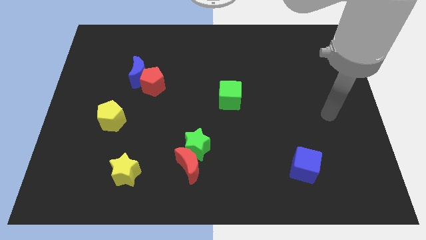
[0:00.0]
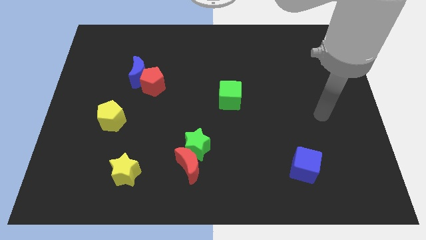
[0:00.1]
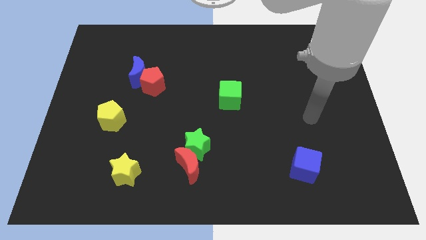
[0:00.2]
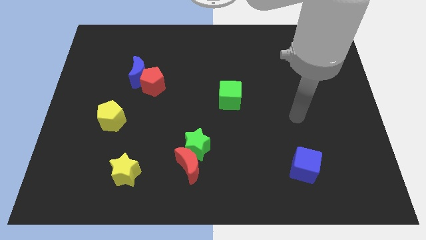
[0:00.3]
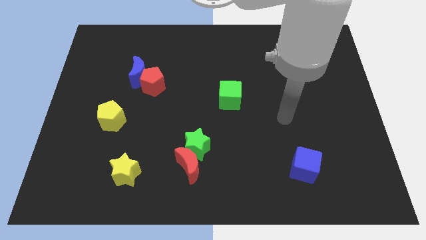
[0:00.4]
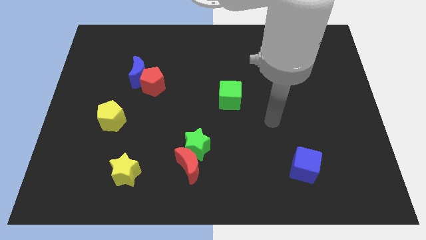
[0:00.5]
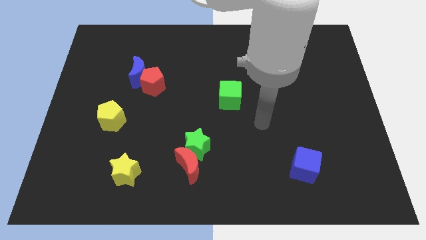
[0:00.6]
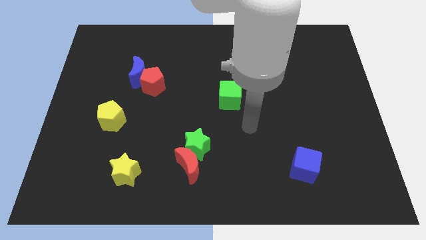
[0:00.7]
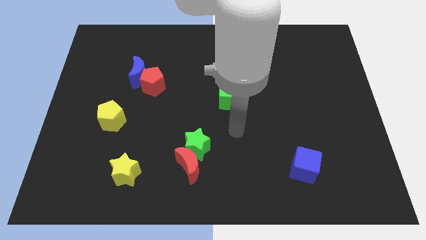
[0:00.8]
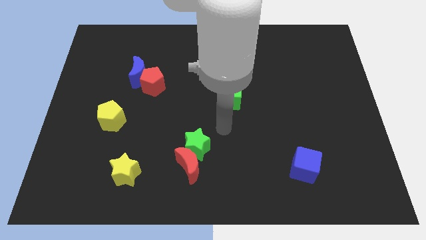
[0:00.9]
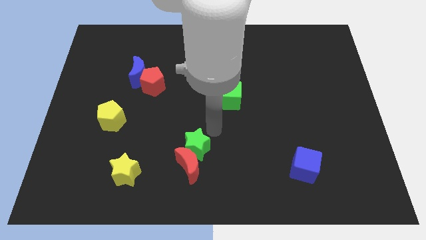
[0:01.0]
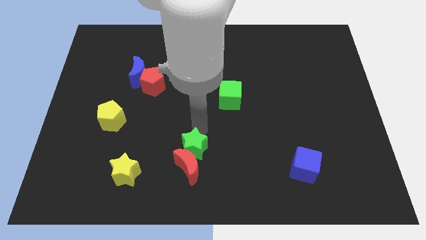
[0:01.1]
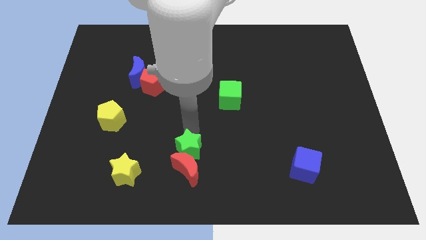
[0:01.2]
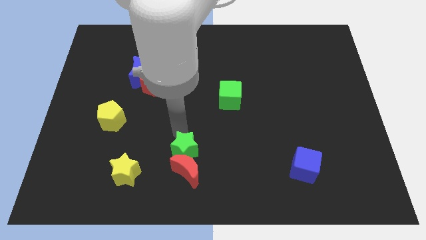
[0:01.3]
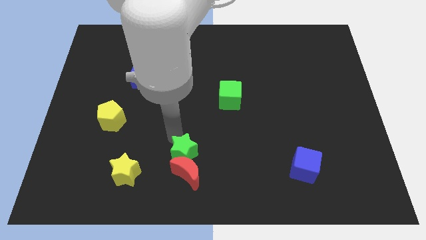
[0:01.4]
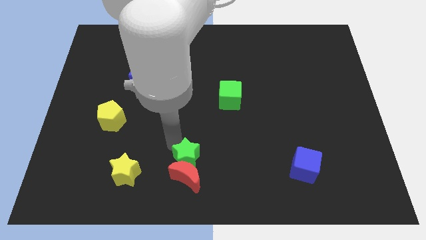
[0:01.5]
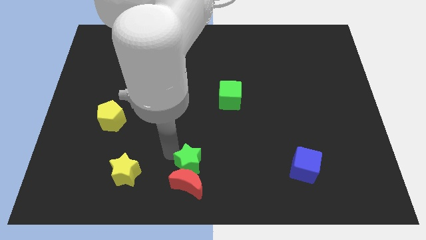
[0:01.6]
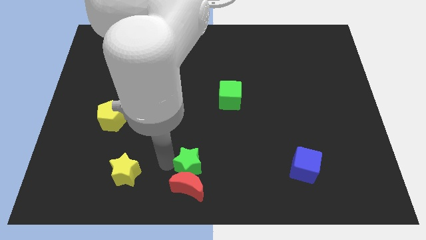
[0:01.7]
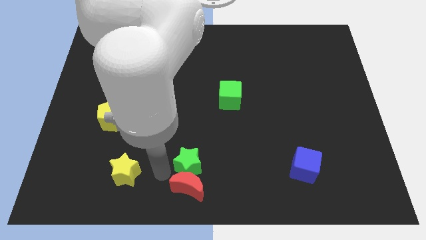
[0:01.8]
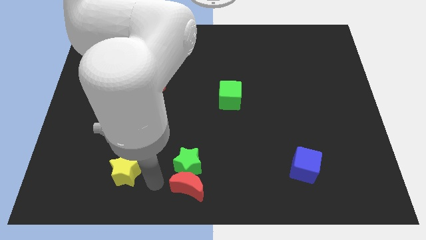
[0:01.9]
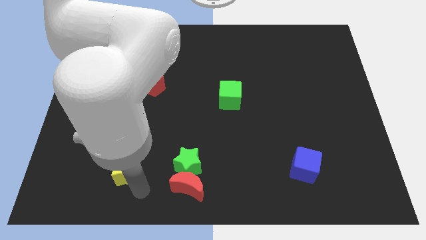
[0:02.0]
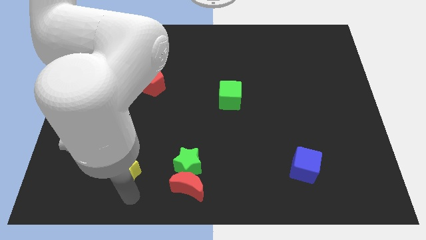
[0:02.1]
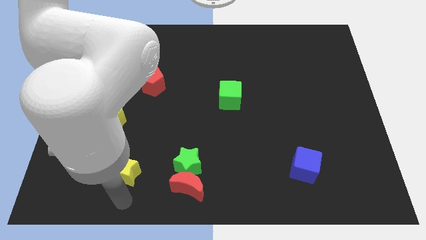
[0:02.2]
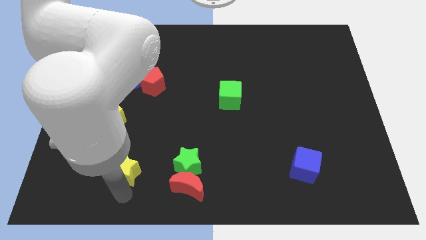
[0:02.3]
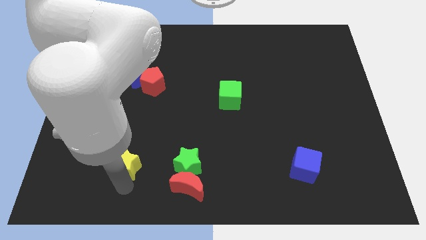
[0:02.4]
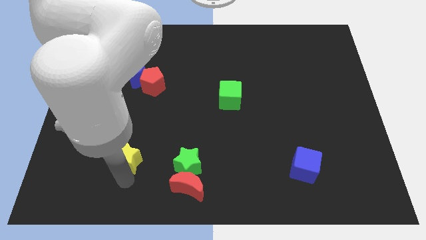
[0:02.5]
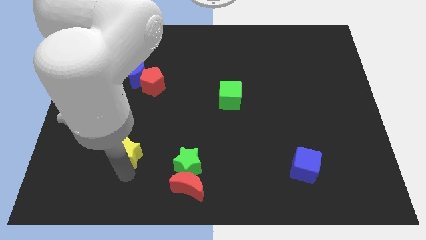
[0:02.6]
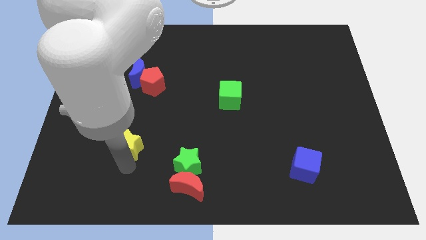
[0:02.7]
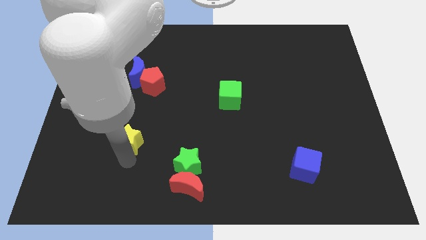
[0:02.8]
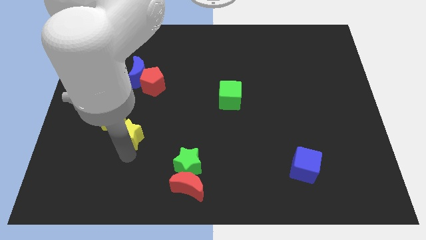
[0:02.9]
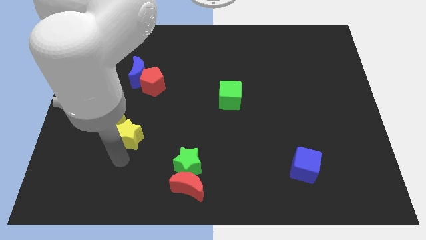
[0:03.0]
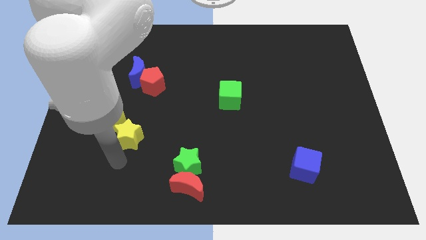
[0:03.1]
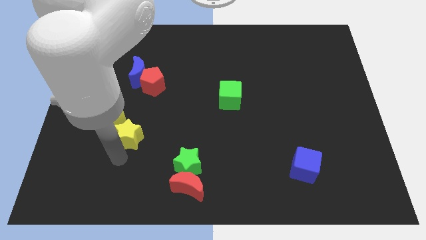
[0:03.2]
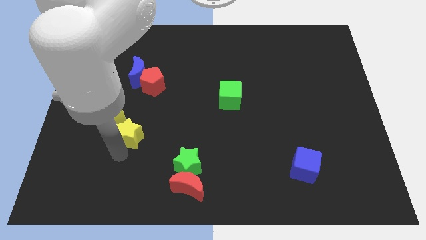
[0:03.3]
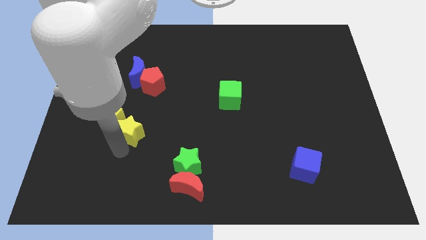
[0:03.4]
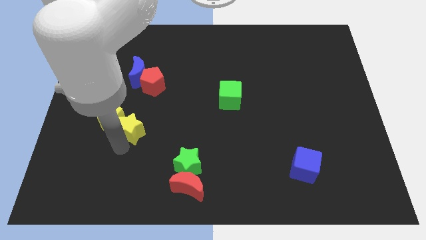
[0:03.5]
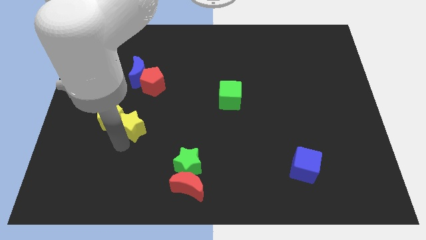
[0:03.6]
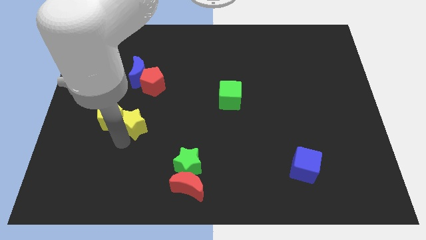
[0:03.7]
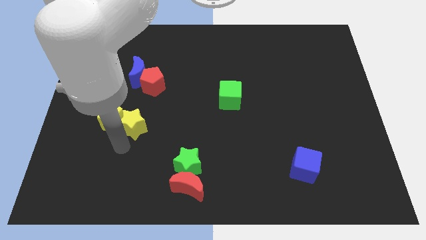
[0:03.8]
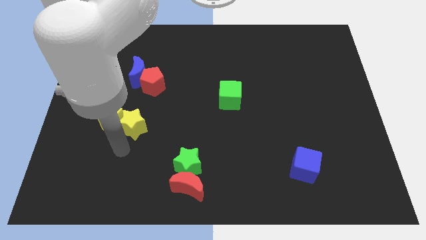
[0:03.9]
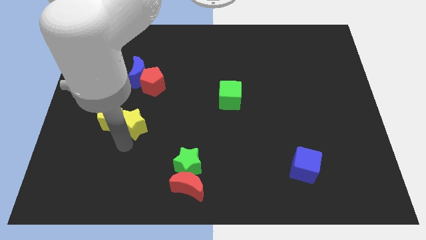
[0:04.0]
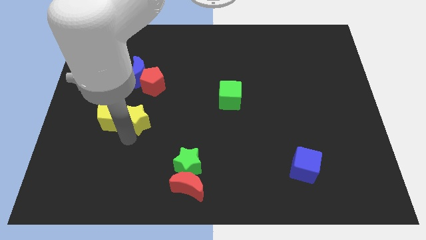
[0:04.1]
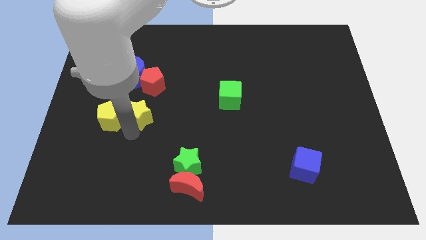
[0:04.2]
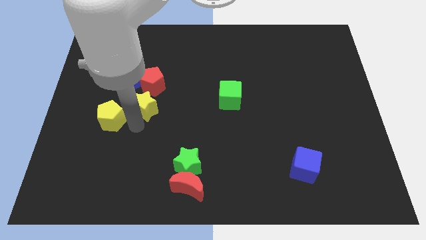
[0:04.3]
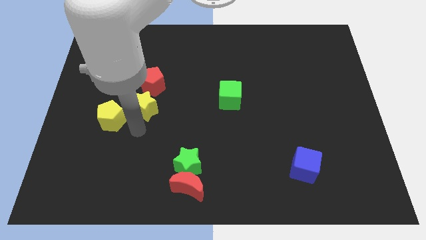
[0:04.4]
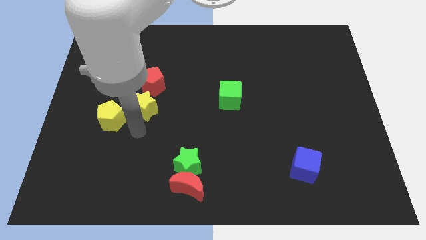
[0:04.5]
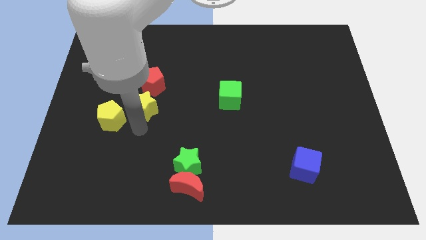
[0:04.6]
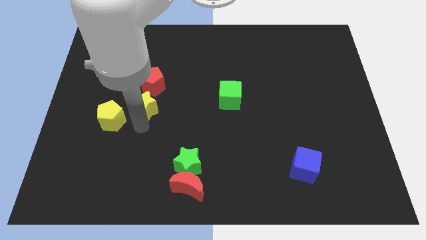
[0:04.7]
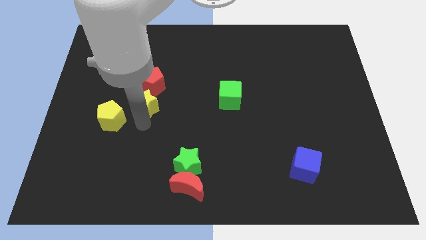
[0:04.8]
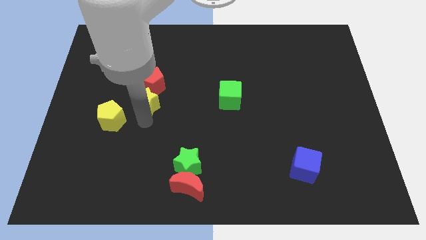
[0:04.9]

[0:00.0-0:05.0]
move the yellow star close to the red pentagon

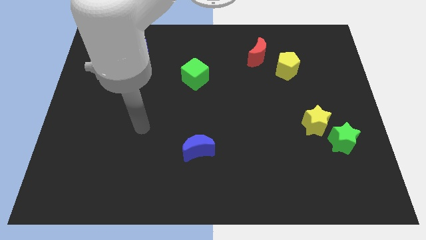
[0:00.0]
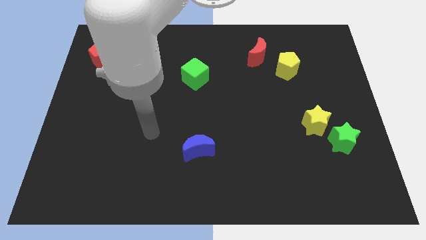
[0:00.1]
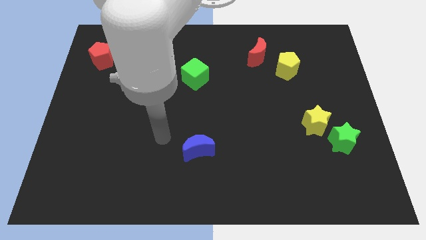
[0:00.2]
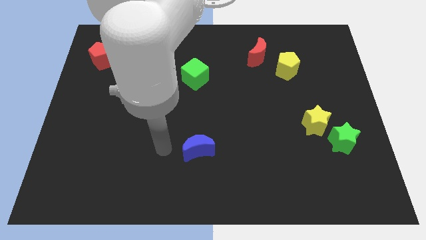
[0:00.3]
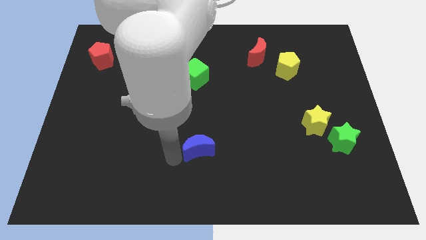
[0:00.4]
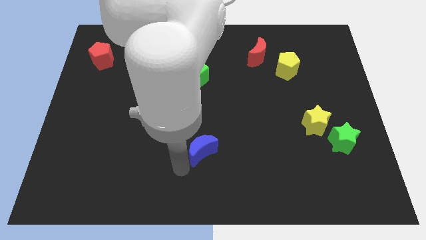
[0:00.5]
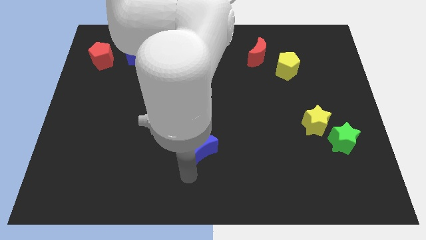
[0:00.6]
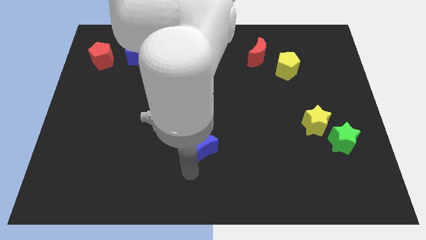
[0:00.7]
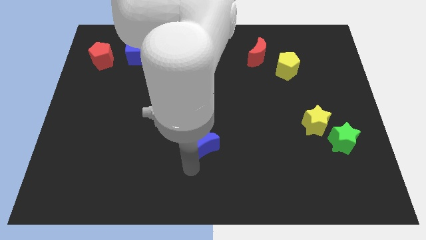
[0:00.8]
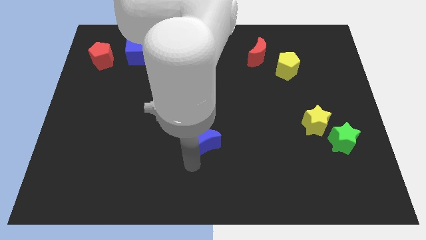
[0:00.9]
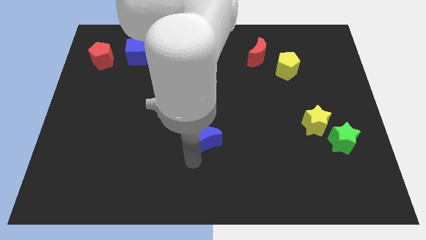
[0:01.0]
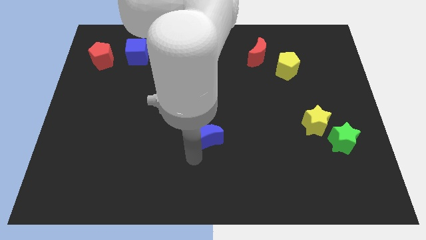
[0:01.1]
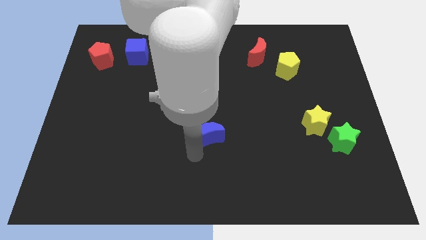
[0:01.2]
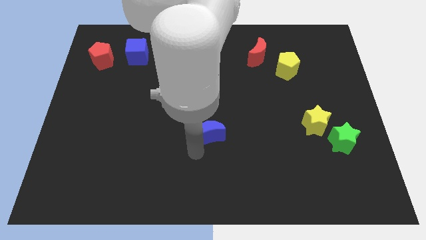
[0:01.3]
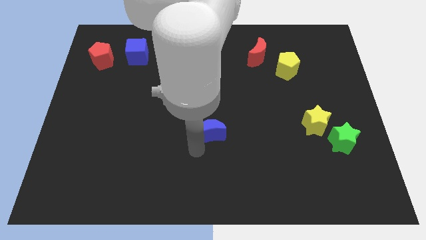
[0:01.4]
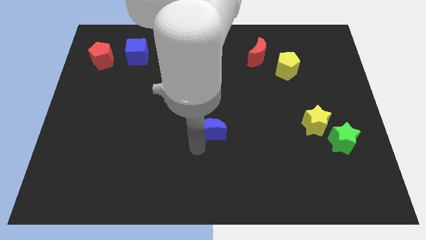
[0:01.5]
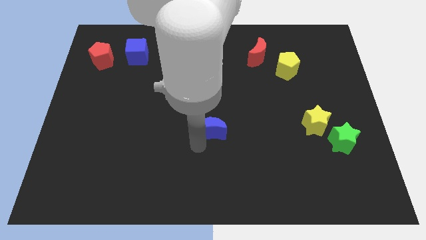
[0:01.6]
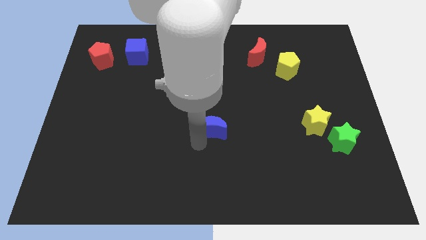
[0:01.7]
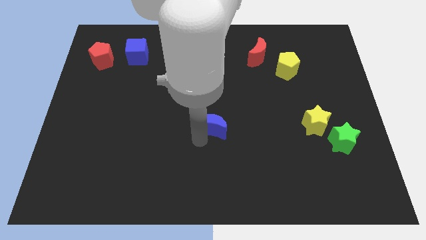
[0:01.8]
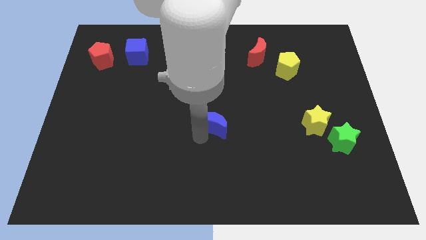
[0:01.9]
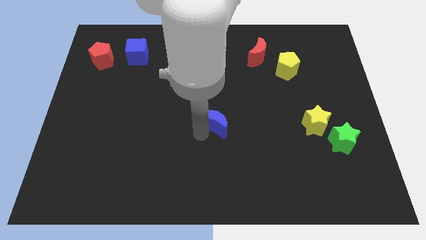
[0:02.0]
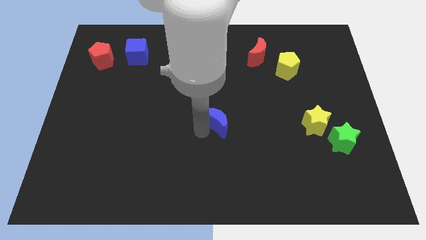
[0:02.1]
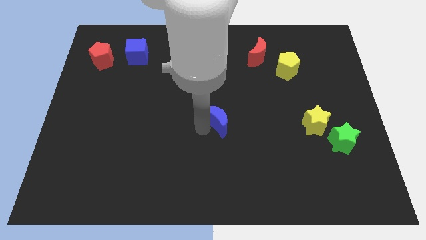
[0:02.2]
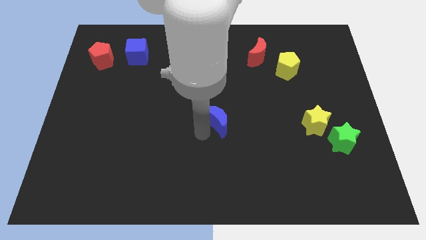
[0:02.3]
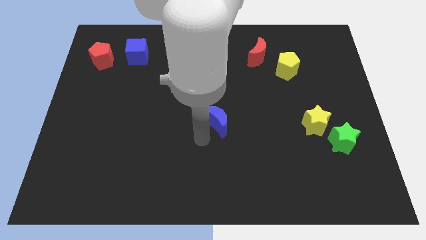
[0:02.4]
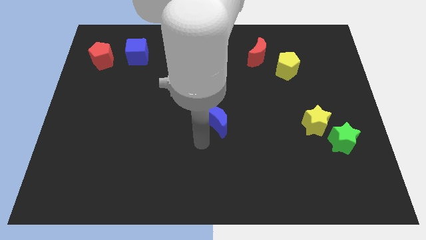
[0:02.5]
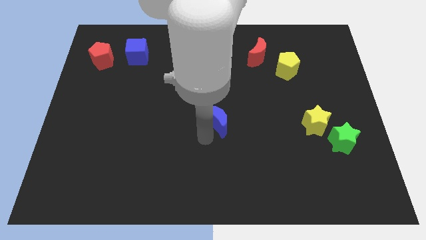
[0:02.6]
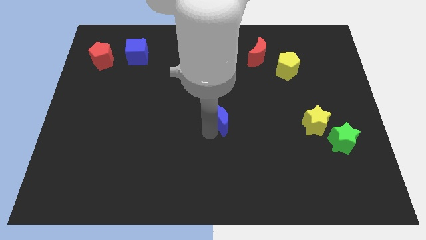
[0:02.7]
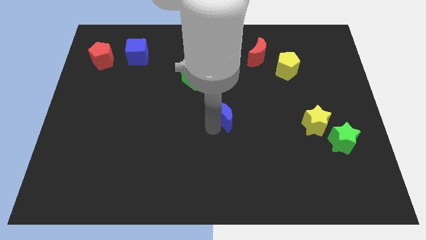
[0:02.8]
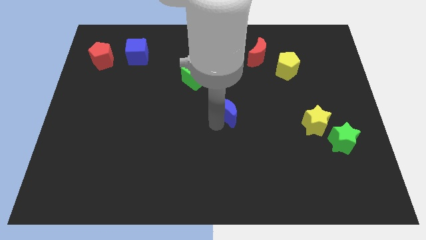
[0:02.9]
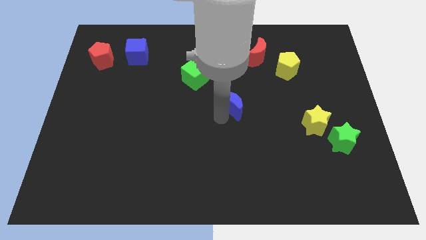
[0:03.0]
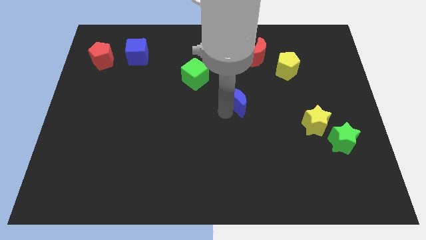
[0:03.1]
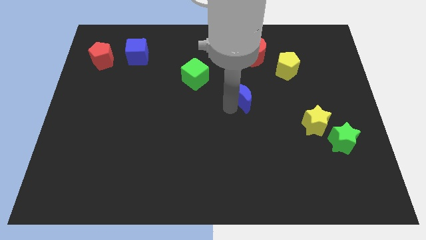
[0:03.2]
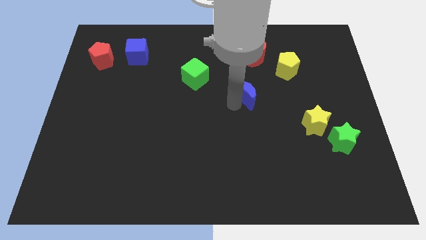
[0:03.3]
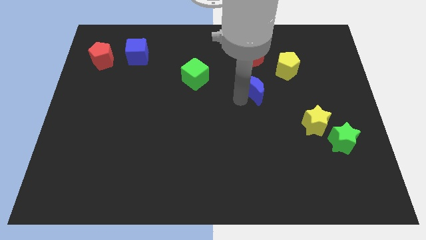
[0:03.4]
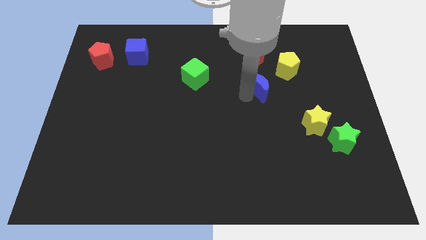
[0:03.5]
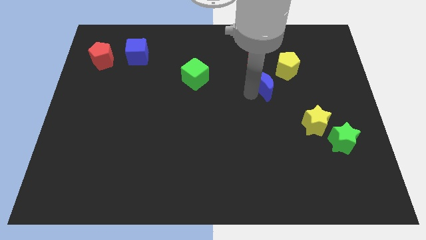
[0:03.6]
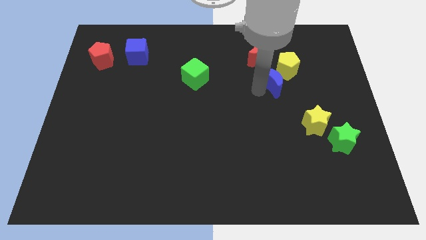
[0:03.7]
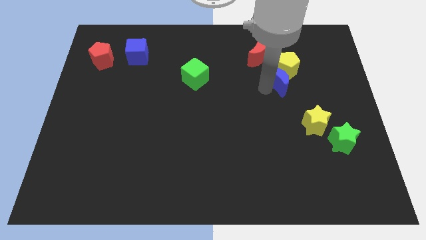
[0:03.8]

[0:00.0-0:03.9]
push the blue moon next to the yellow pentagon
